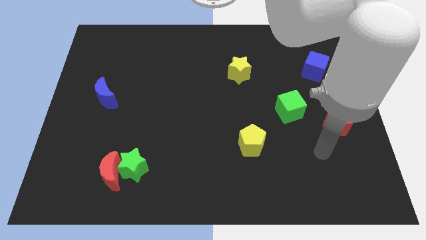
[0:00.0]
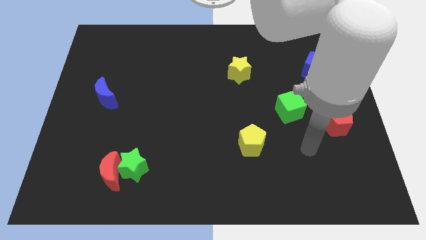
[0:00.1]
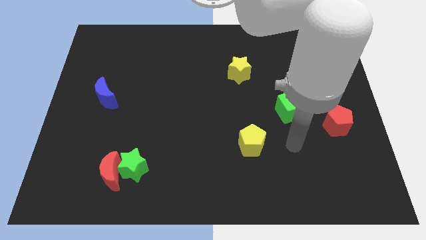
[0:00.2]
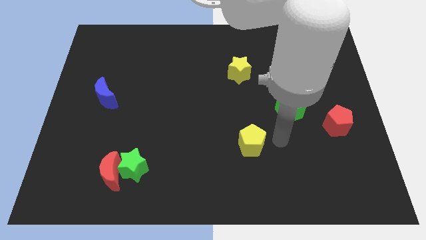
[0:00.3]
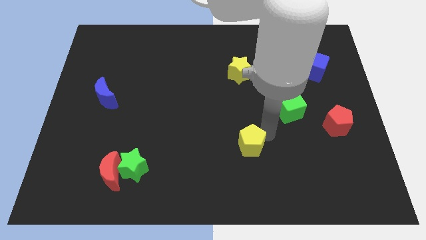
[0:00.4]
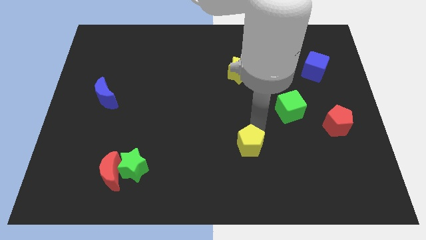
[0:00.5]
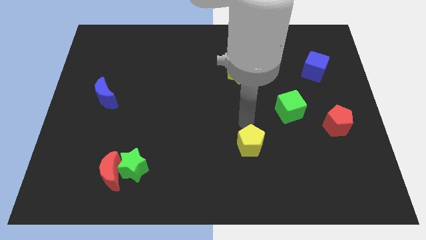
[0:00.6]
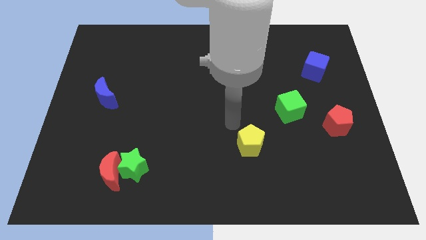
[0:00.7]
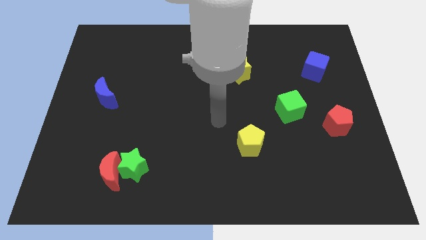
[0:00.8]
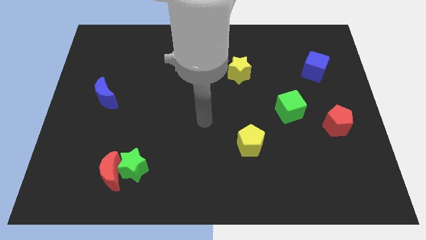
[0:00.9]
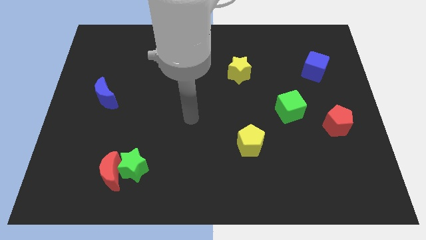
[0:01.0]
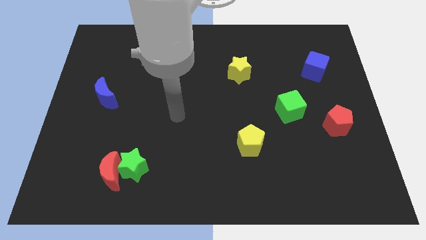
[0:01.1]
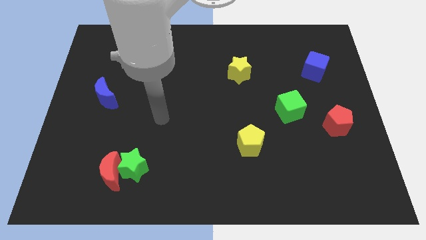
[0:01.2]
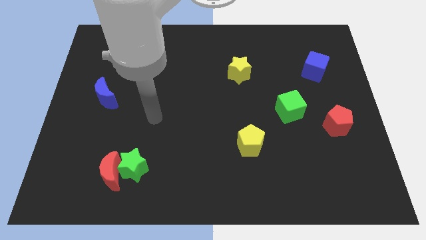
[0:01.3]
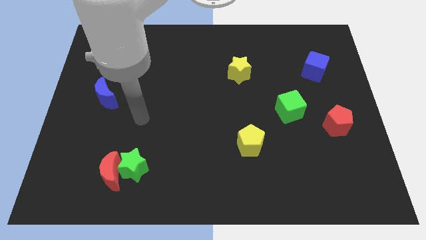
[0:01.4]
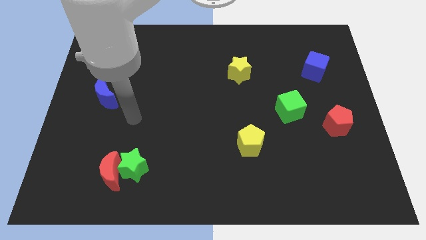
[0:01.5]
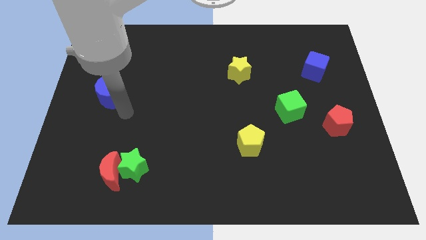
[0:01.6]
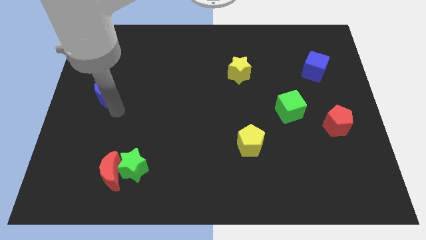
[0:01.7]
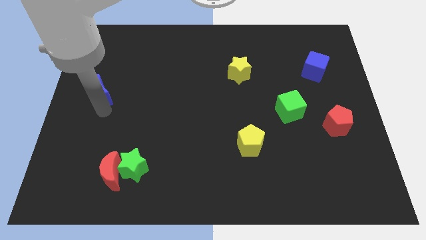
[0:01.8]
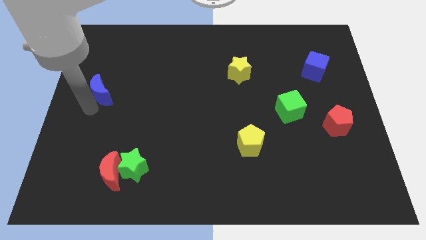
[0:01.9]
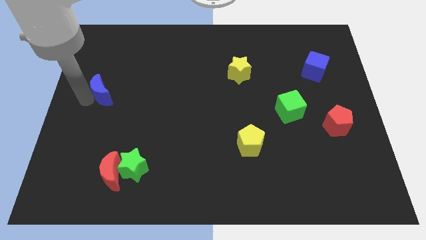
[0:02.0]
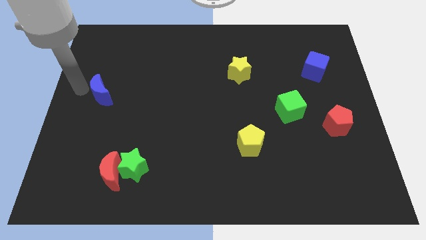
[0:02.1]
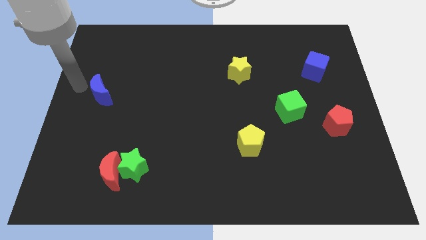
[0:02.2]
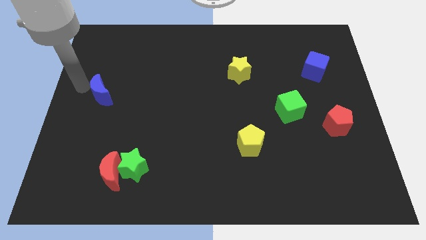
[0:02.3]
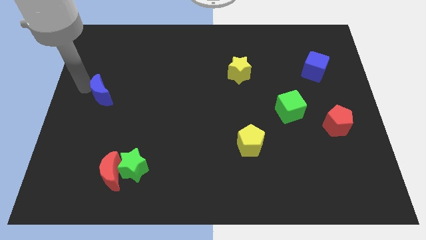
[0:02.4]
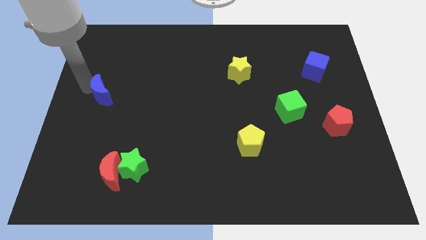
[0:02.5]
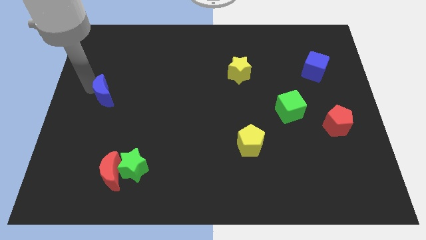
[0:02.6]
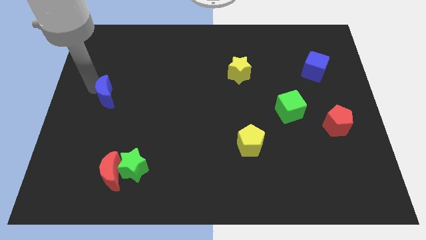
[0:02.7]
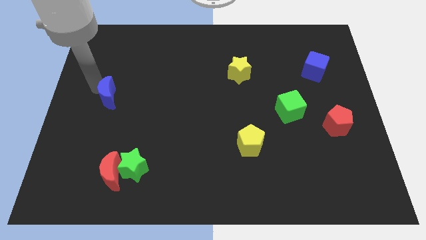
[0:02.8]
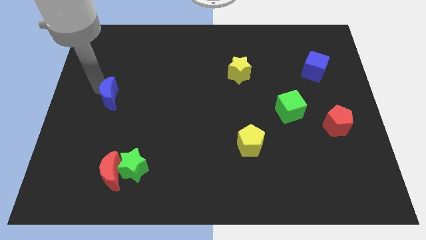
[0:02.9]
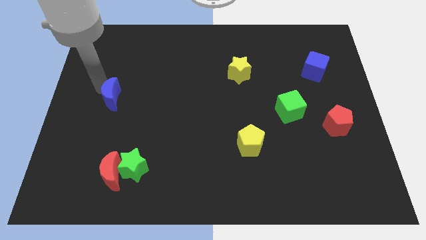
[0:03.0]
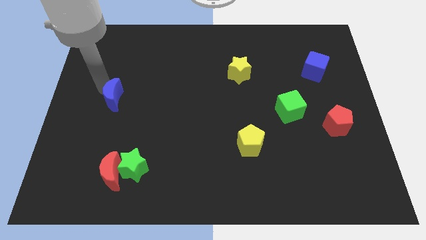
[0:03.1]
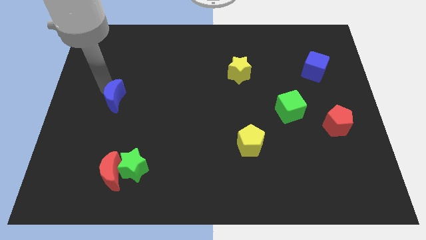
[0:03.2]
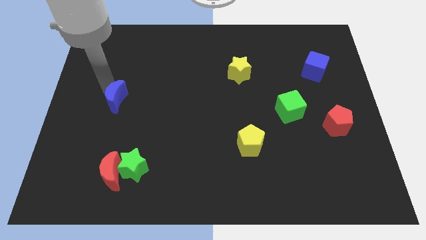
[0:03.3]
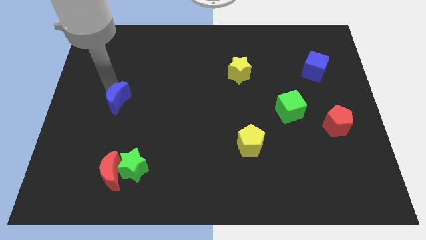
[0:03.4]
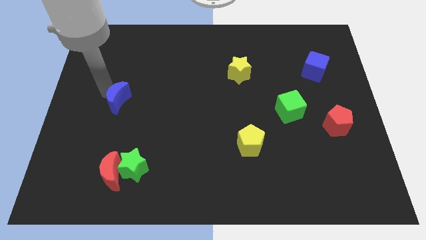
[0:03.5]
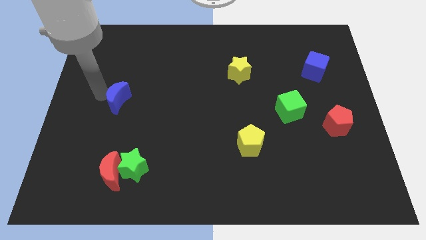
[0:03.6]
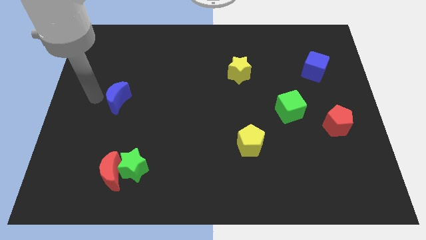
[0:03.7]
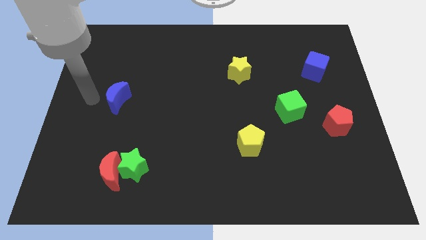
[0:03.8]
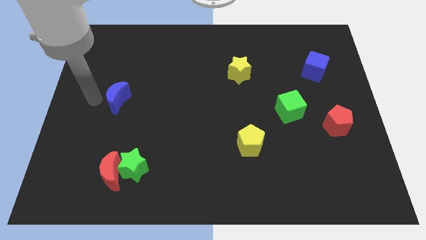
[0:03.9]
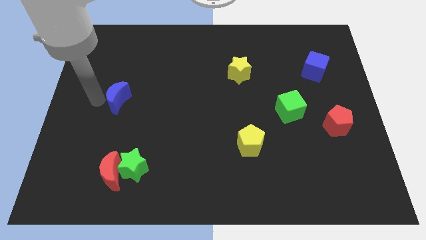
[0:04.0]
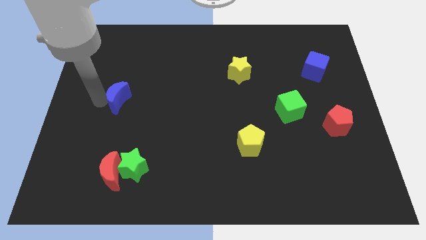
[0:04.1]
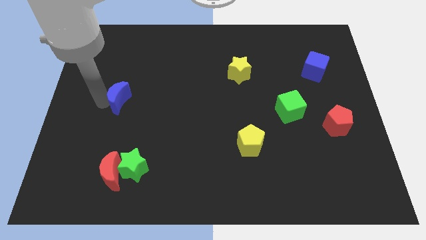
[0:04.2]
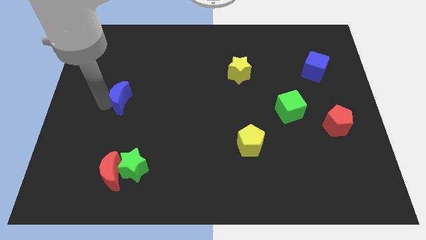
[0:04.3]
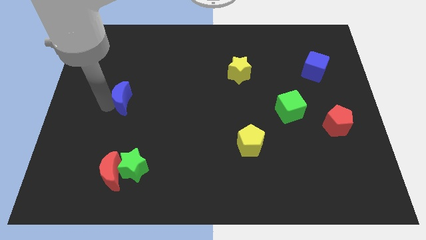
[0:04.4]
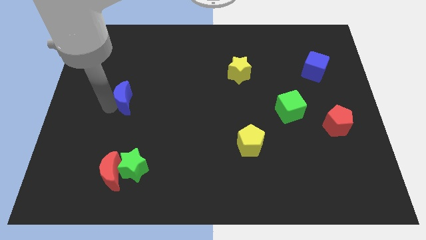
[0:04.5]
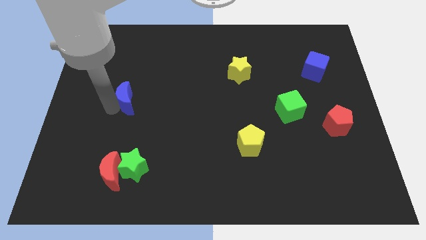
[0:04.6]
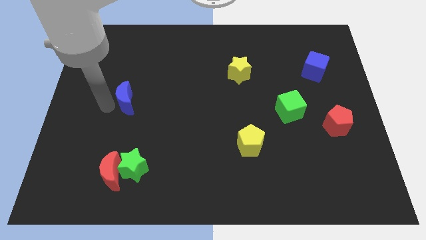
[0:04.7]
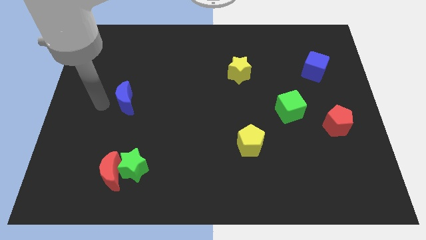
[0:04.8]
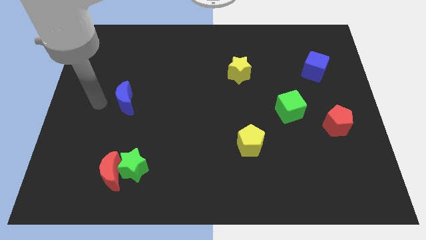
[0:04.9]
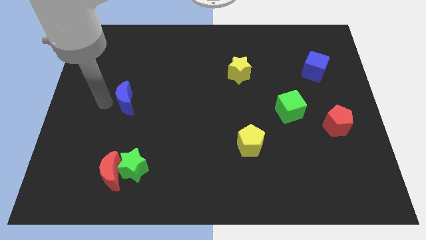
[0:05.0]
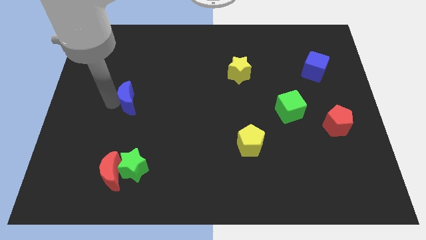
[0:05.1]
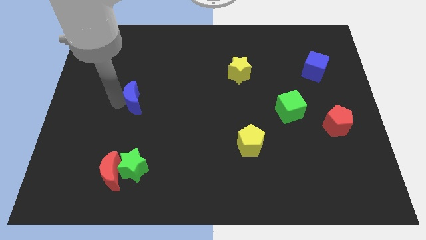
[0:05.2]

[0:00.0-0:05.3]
slide the blue moon somewhat right

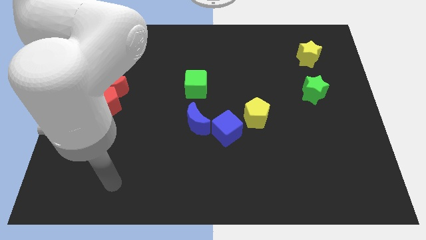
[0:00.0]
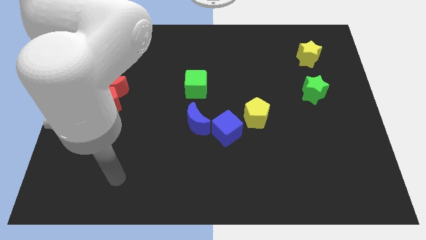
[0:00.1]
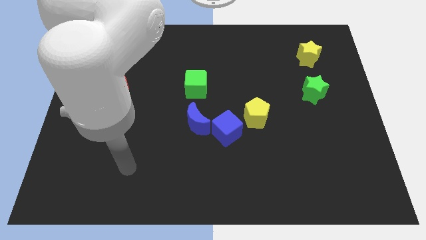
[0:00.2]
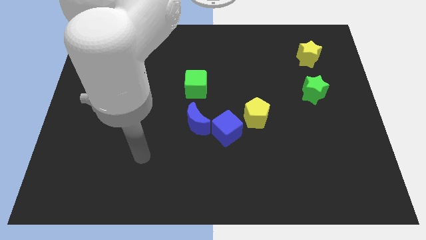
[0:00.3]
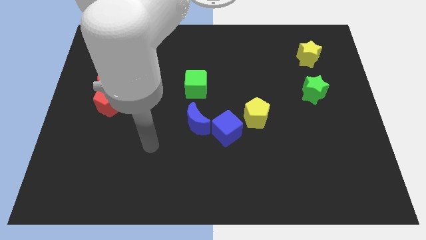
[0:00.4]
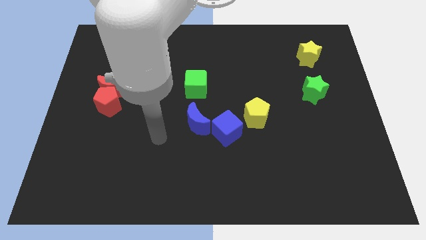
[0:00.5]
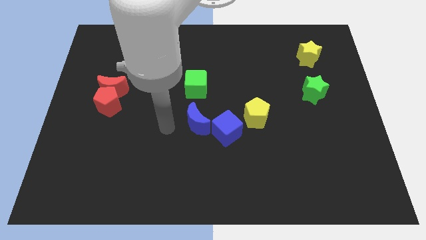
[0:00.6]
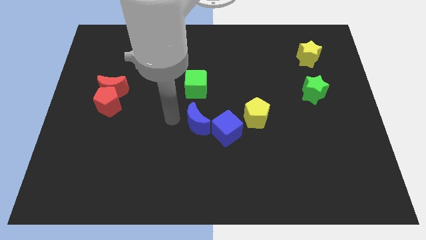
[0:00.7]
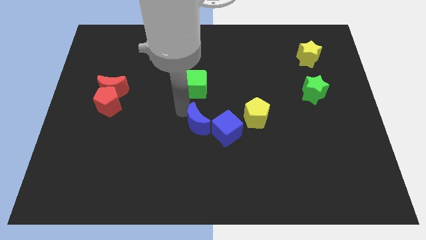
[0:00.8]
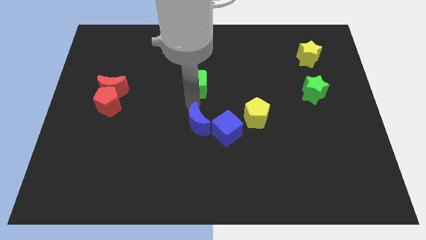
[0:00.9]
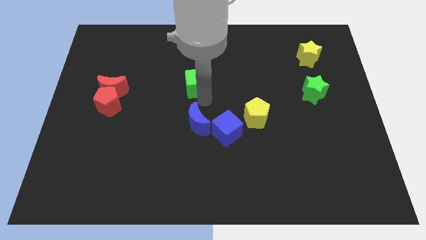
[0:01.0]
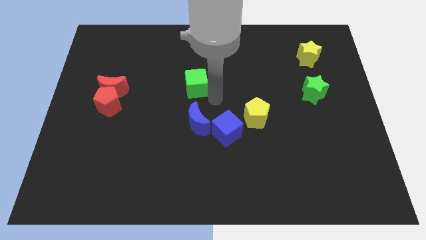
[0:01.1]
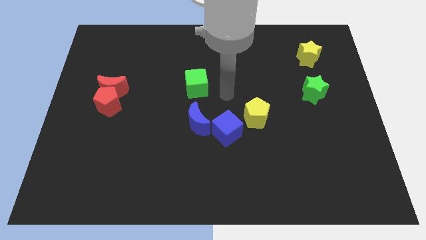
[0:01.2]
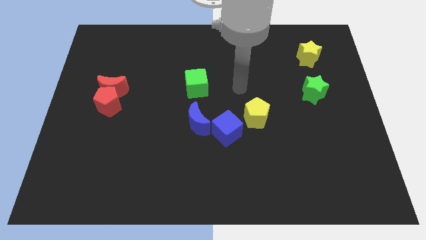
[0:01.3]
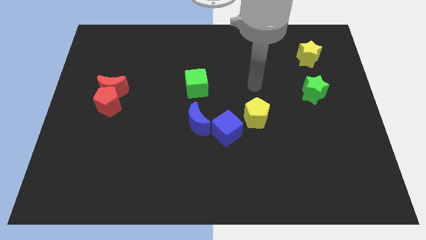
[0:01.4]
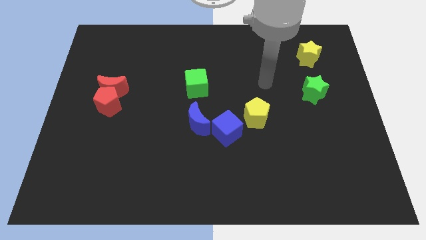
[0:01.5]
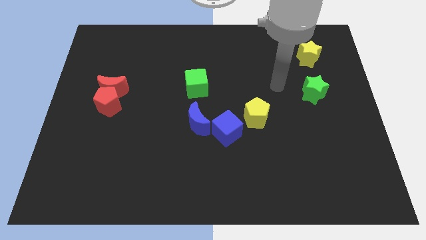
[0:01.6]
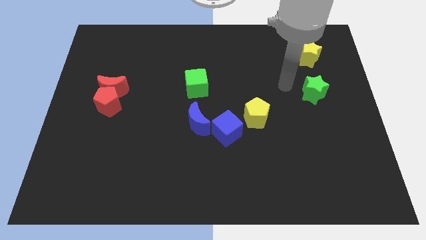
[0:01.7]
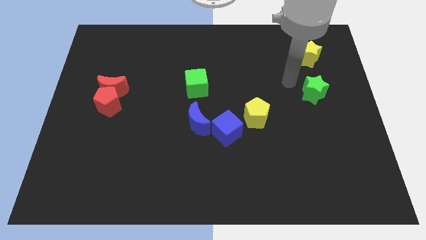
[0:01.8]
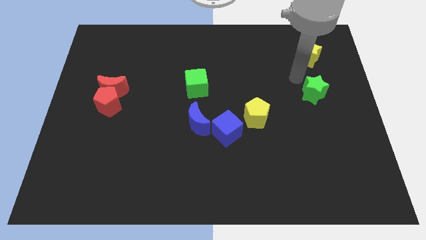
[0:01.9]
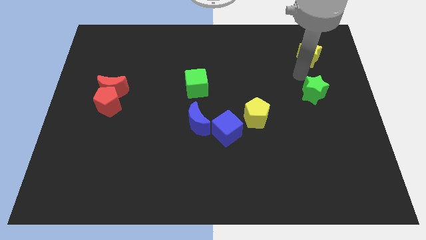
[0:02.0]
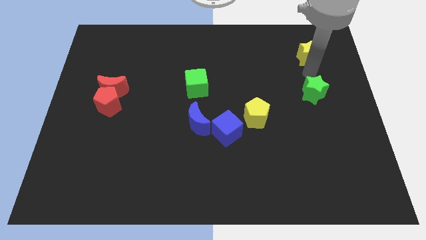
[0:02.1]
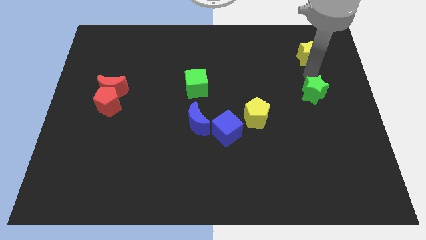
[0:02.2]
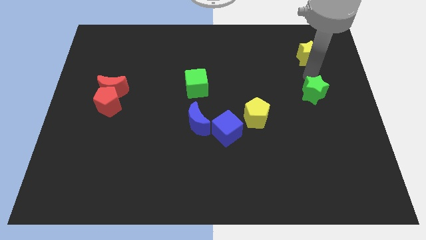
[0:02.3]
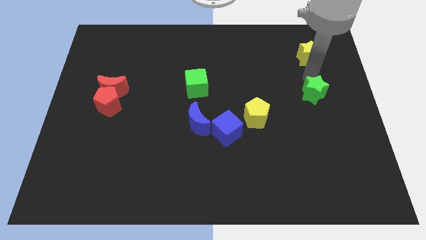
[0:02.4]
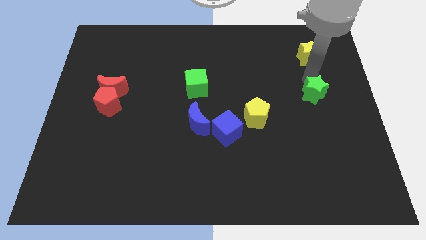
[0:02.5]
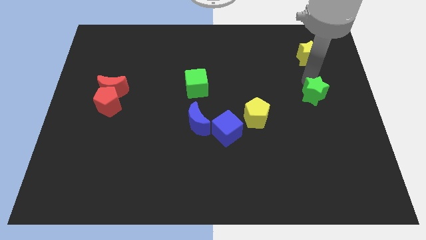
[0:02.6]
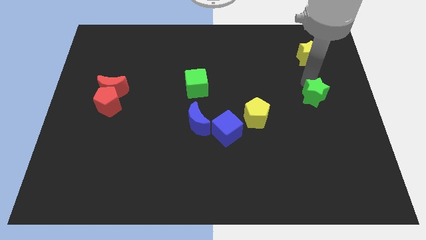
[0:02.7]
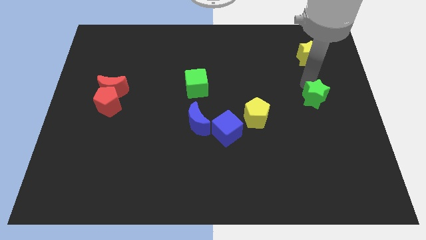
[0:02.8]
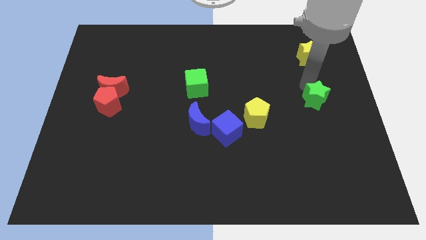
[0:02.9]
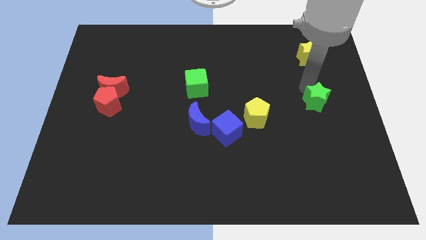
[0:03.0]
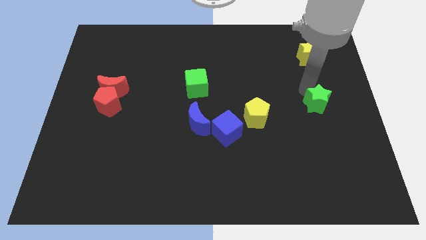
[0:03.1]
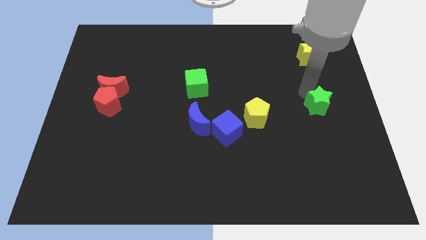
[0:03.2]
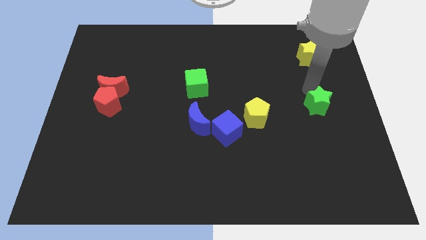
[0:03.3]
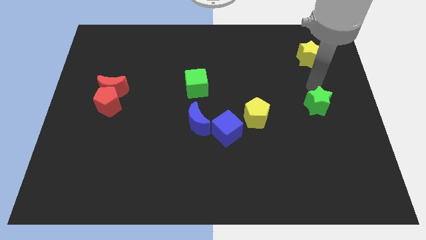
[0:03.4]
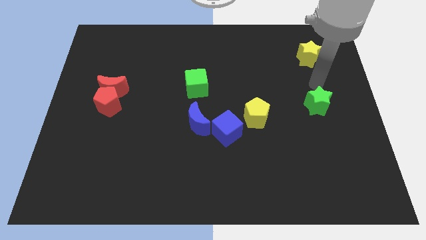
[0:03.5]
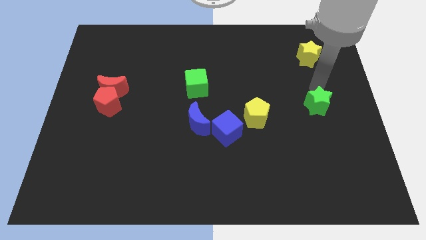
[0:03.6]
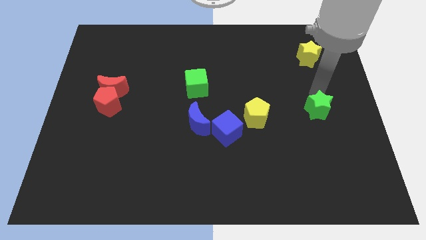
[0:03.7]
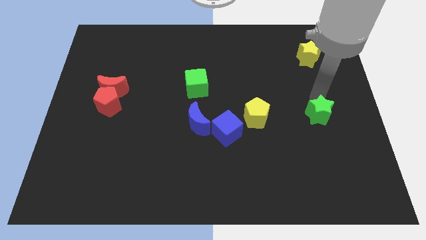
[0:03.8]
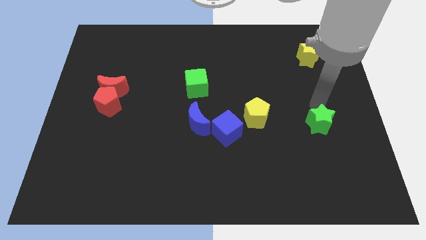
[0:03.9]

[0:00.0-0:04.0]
slide the green star down slightly
